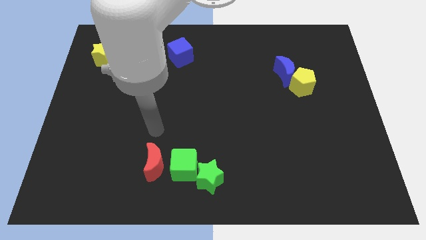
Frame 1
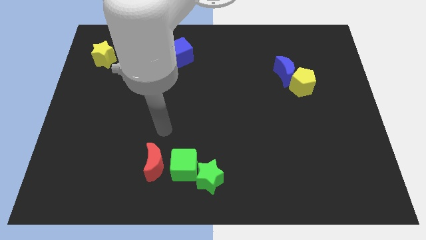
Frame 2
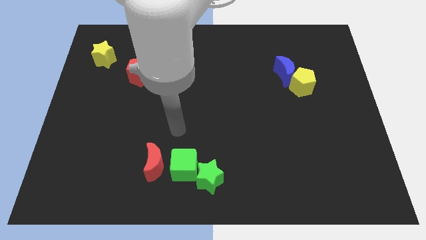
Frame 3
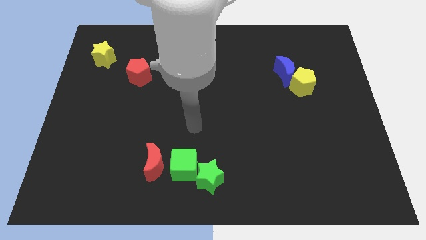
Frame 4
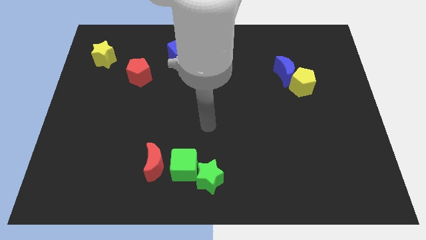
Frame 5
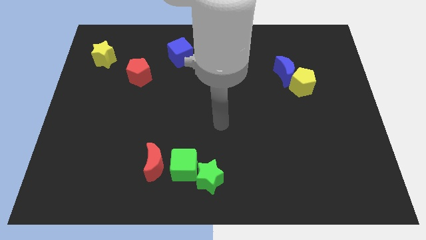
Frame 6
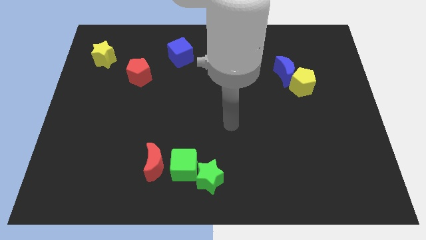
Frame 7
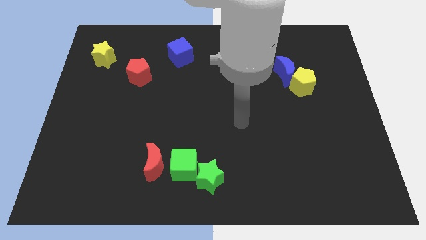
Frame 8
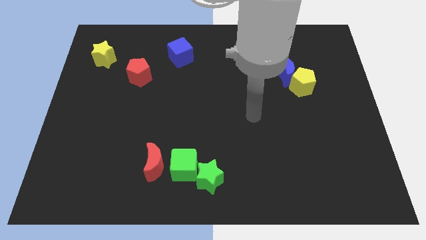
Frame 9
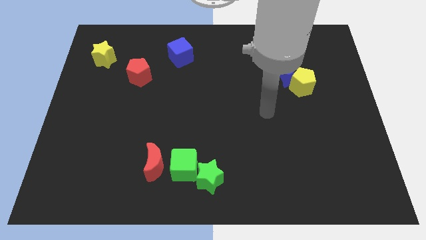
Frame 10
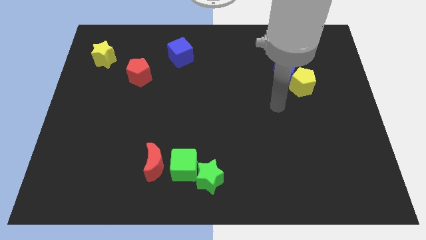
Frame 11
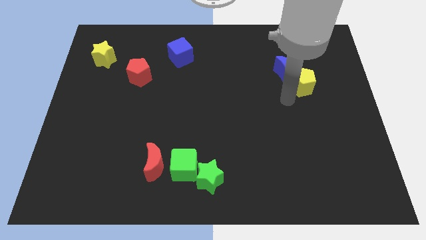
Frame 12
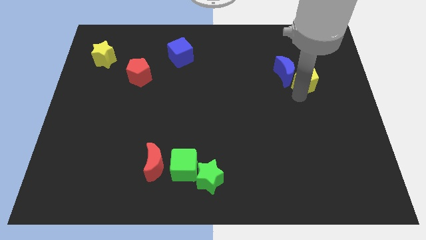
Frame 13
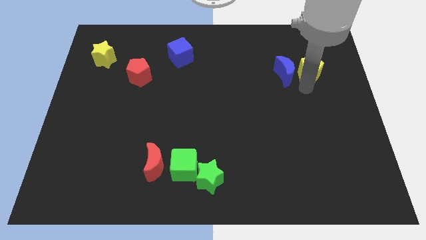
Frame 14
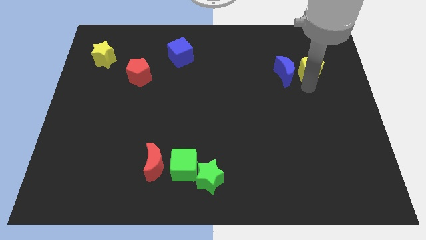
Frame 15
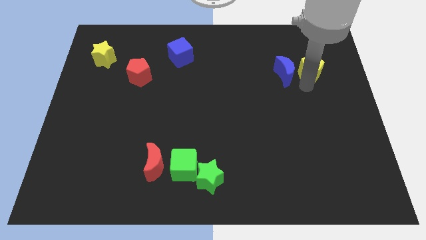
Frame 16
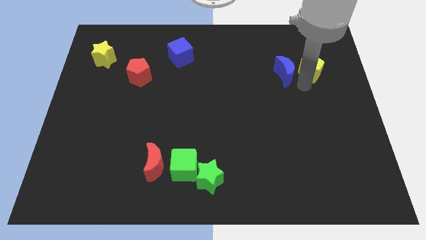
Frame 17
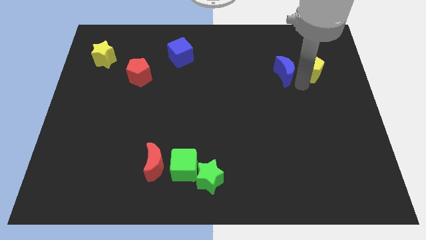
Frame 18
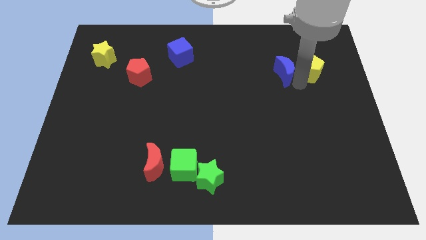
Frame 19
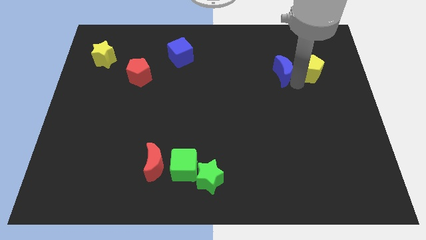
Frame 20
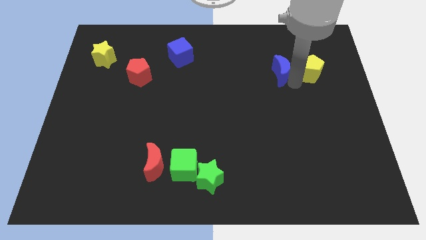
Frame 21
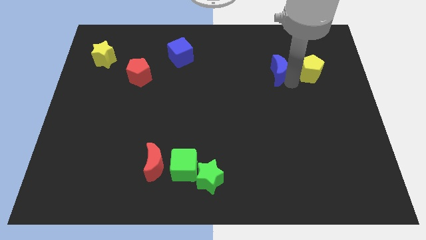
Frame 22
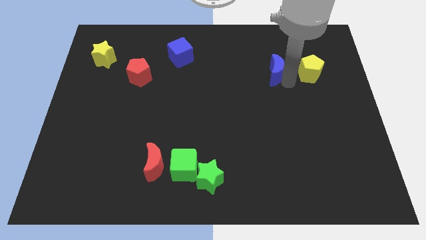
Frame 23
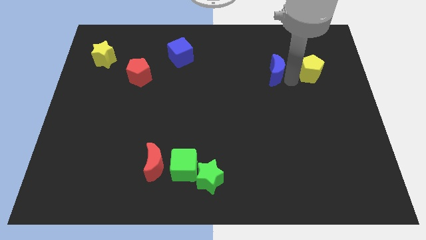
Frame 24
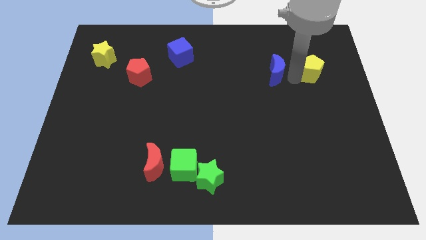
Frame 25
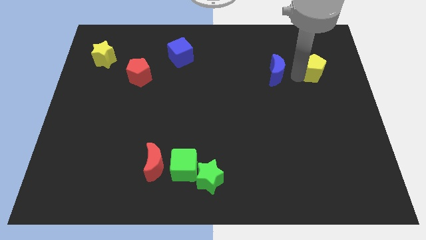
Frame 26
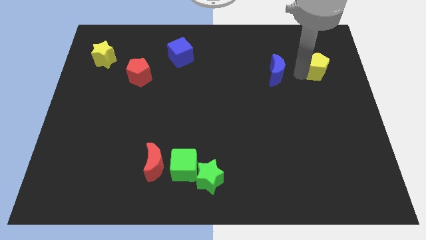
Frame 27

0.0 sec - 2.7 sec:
pull the blue moon apart from the yellow pentagon

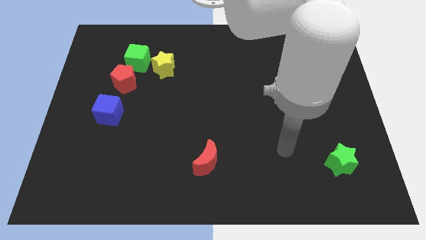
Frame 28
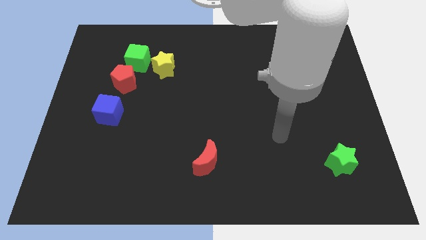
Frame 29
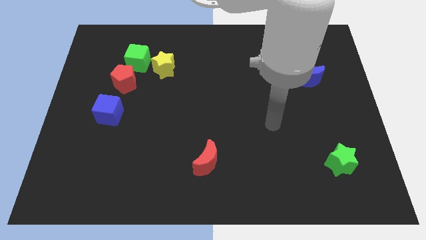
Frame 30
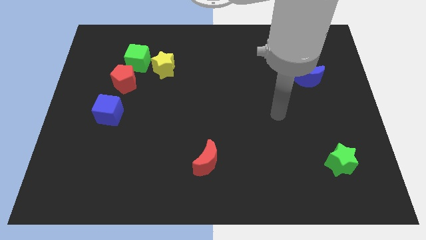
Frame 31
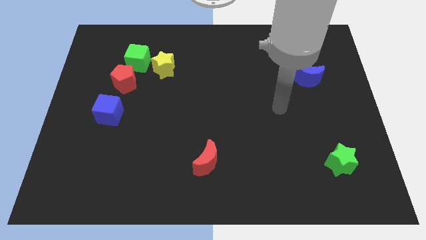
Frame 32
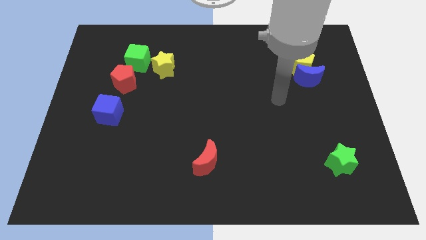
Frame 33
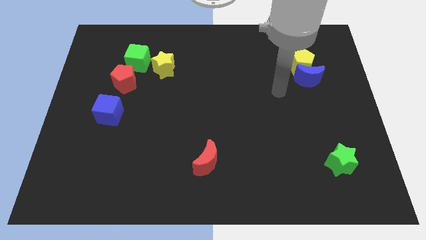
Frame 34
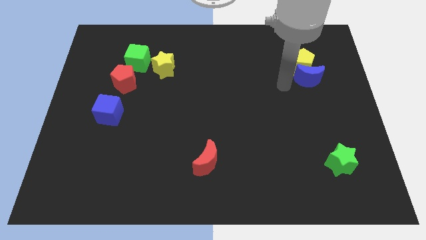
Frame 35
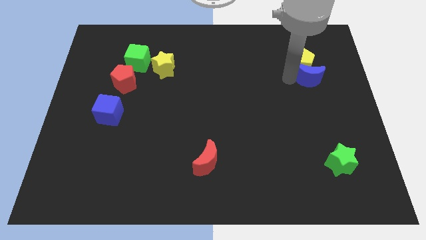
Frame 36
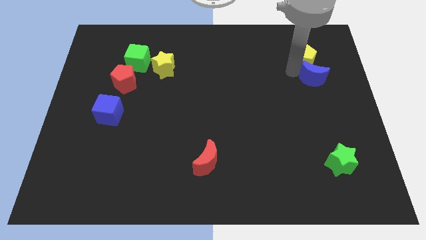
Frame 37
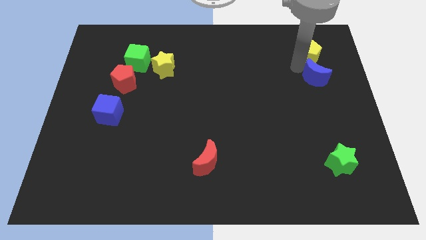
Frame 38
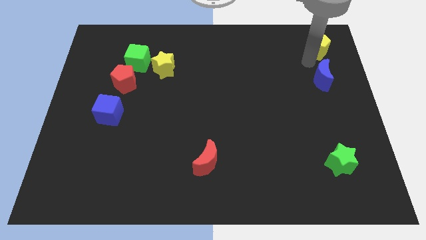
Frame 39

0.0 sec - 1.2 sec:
move the blue moon away from the yellow pentagon

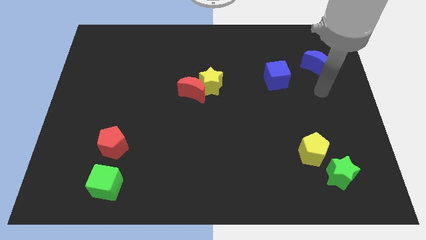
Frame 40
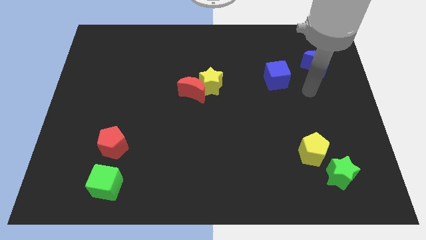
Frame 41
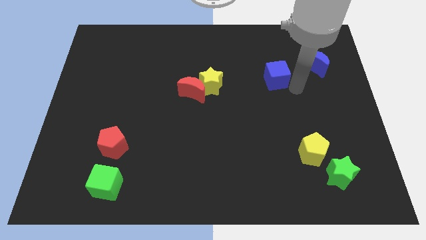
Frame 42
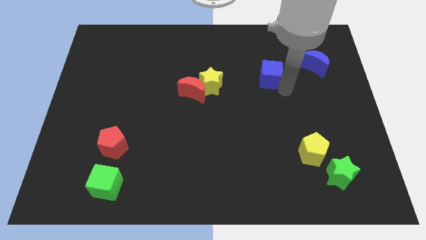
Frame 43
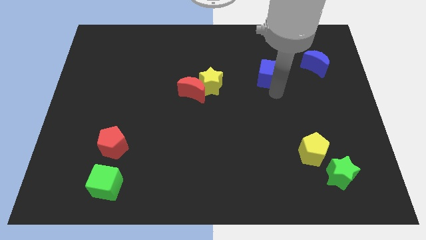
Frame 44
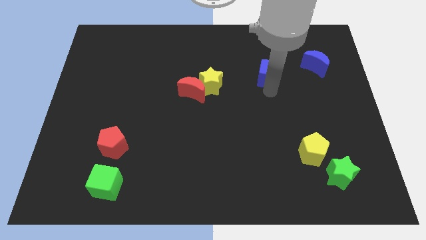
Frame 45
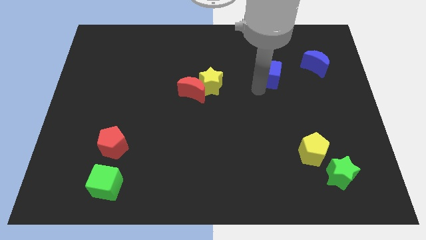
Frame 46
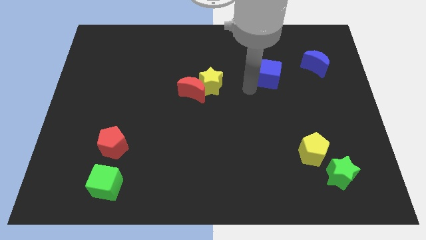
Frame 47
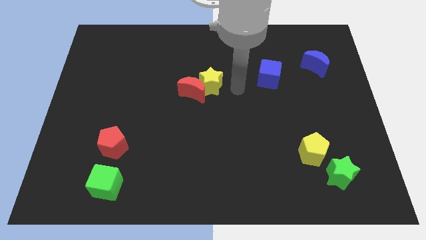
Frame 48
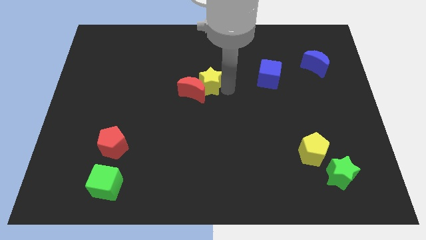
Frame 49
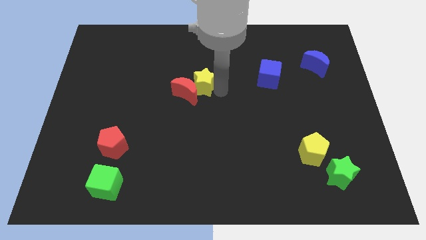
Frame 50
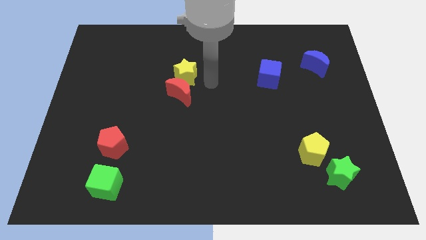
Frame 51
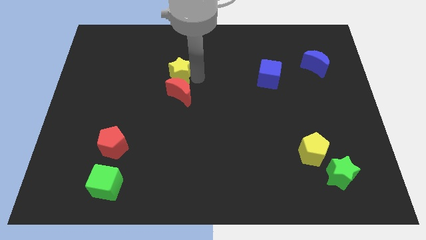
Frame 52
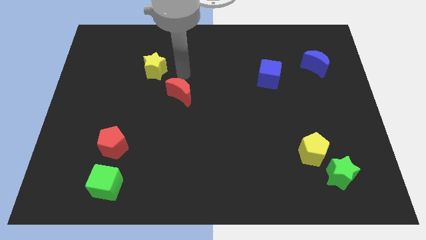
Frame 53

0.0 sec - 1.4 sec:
pull the red moon apart from the yellow star

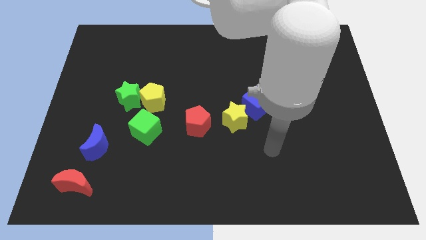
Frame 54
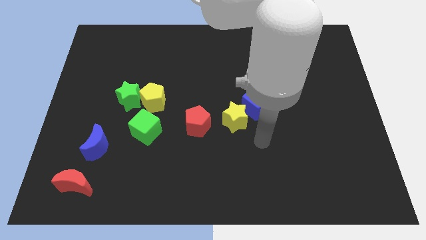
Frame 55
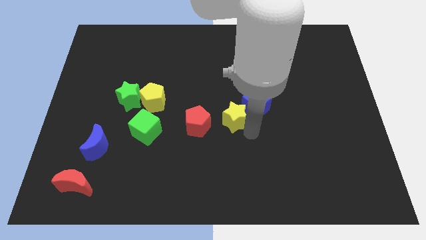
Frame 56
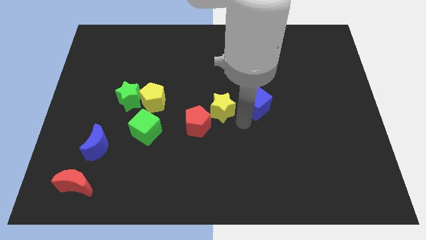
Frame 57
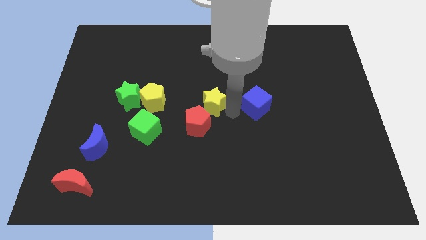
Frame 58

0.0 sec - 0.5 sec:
separate the blue cube from the yellow star

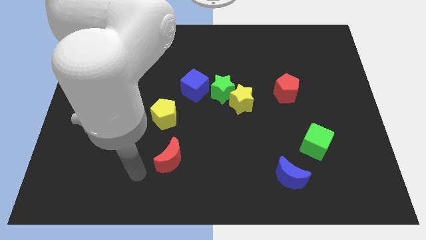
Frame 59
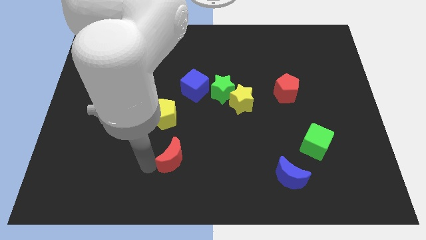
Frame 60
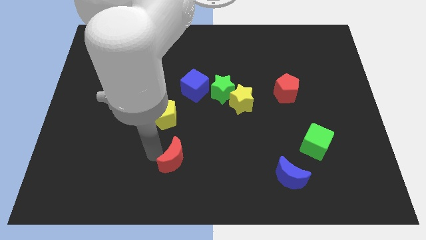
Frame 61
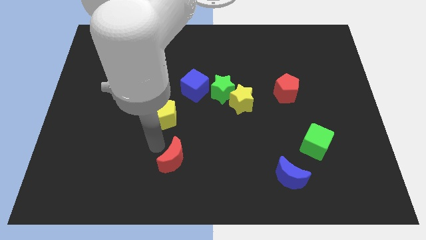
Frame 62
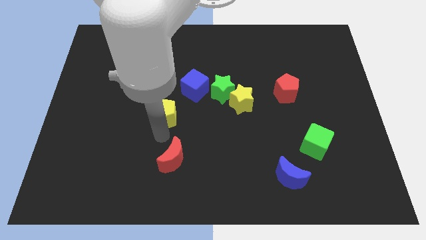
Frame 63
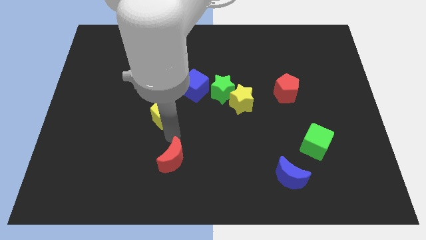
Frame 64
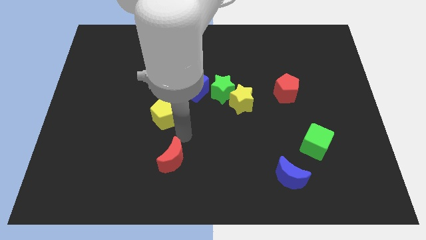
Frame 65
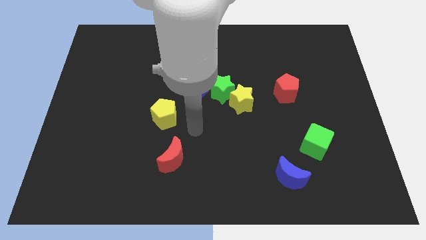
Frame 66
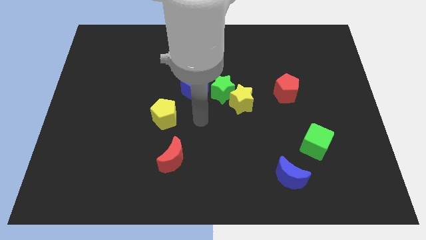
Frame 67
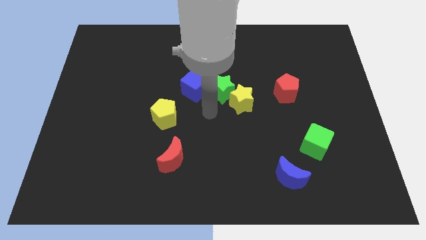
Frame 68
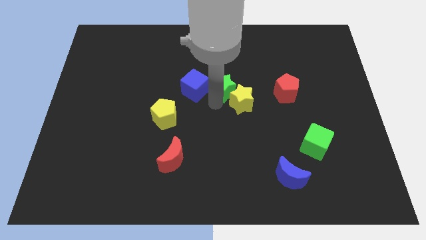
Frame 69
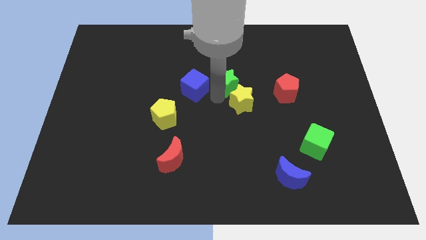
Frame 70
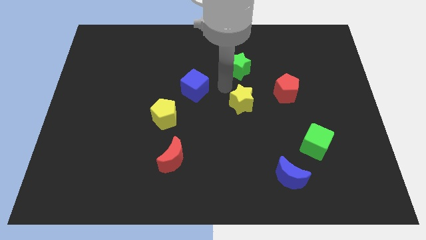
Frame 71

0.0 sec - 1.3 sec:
pull the yellow star apart from the green star

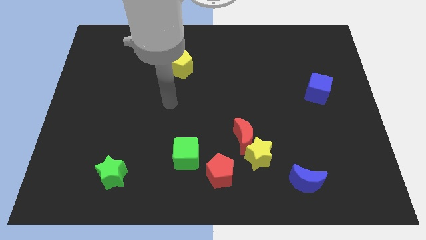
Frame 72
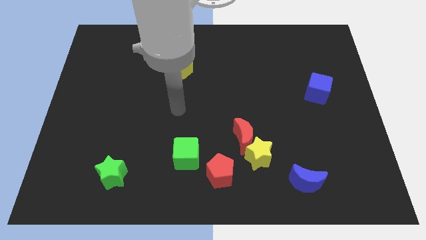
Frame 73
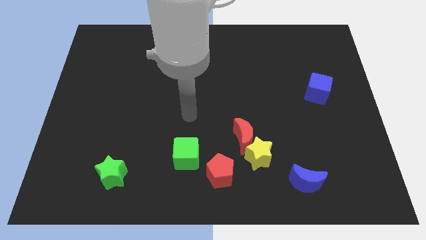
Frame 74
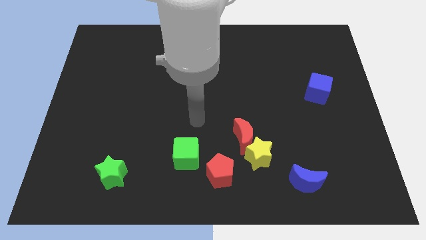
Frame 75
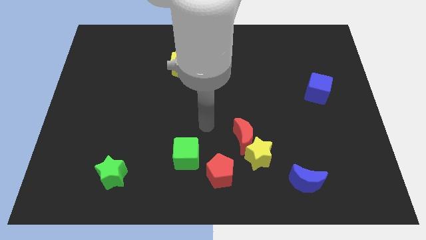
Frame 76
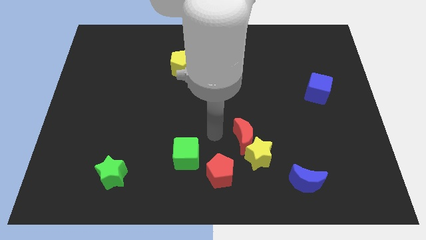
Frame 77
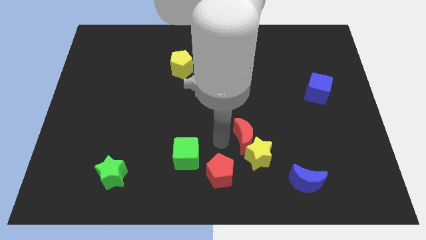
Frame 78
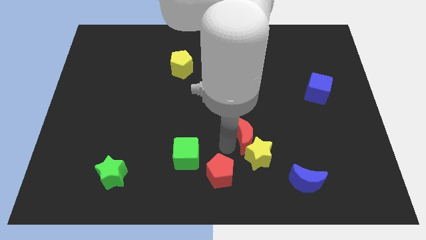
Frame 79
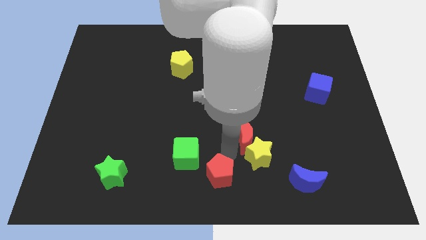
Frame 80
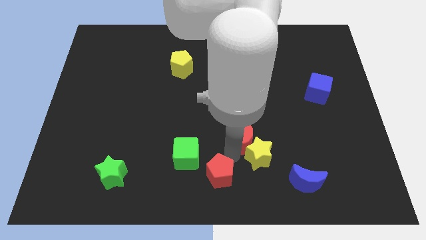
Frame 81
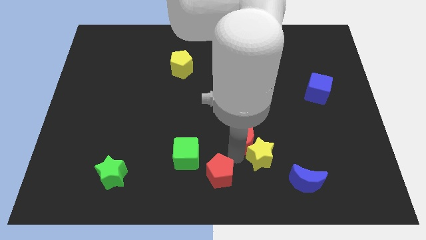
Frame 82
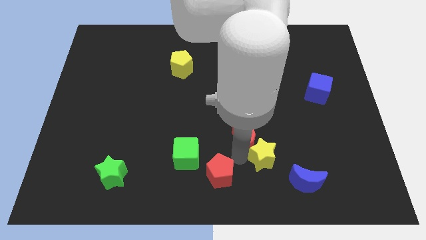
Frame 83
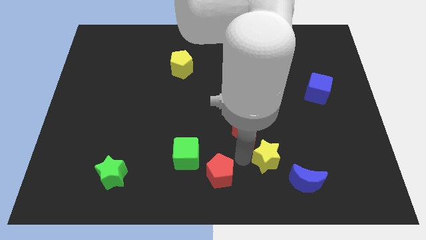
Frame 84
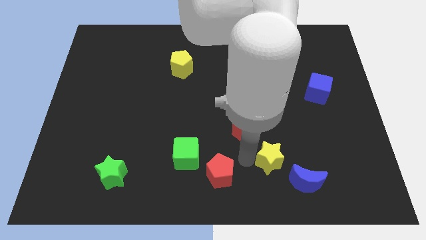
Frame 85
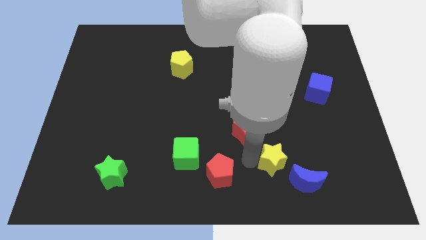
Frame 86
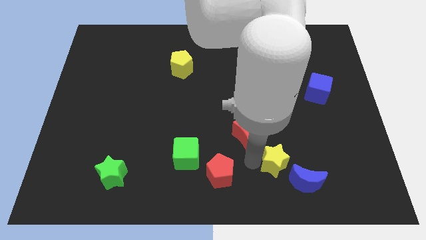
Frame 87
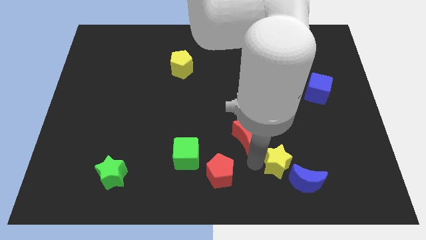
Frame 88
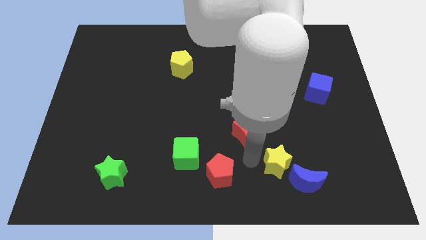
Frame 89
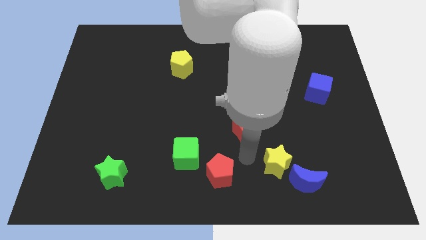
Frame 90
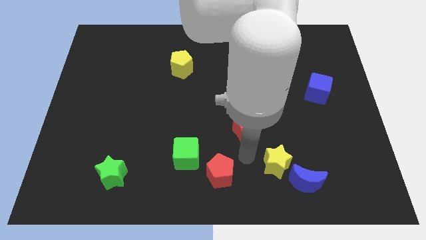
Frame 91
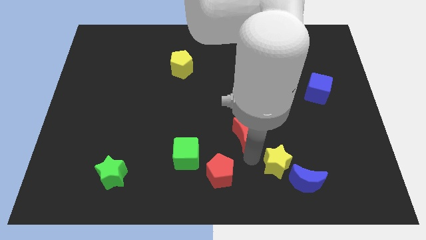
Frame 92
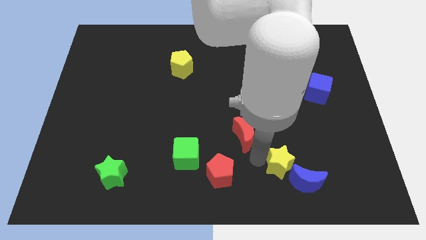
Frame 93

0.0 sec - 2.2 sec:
move the yellow star away from the red moon and red pentagon
